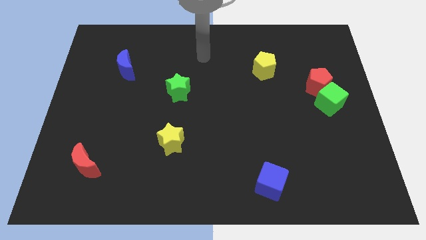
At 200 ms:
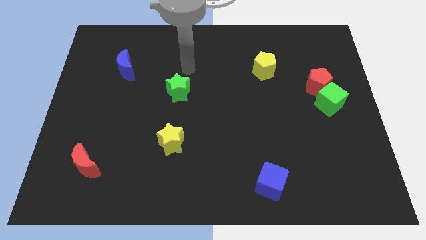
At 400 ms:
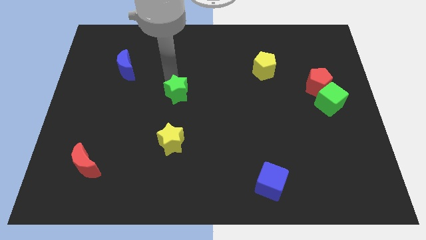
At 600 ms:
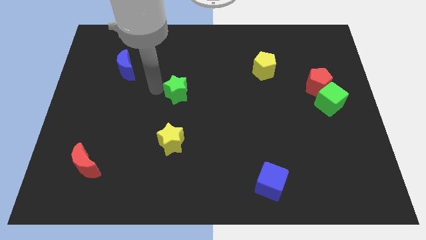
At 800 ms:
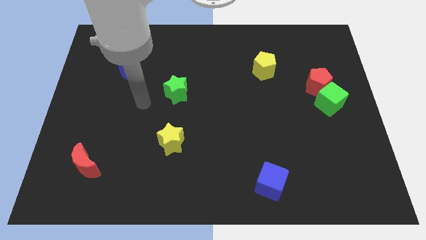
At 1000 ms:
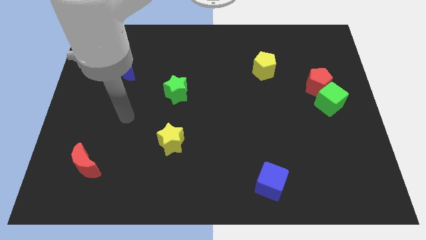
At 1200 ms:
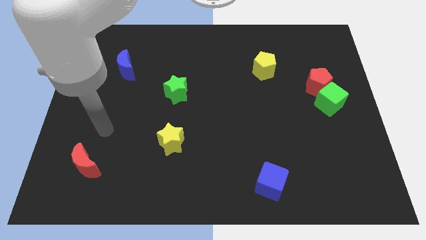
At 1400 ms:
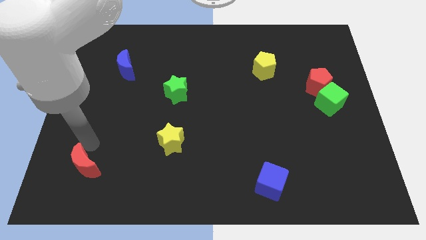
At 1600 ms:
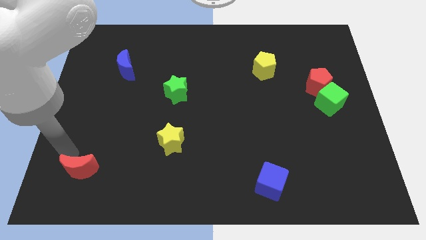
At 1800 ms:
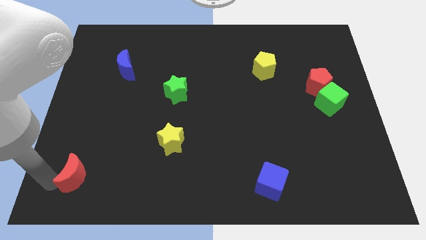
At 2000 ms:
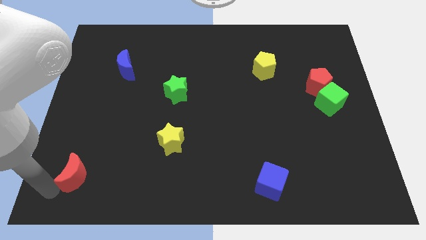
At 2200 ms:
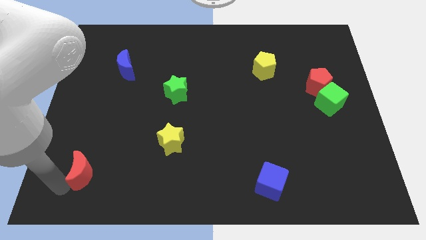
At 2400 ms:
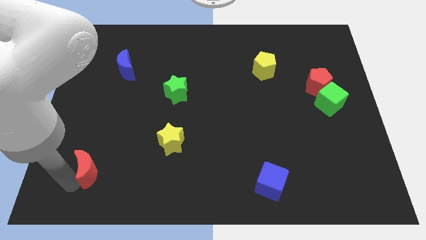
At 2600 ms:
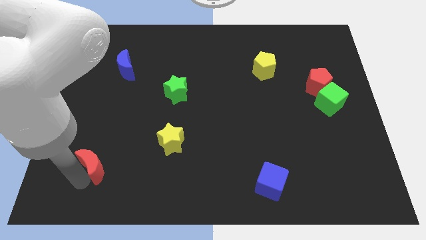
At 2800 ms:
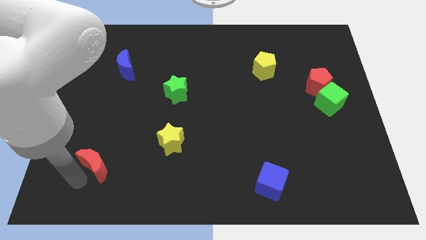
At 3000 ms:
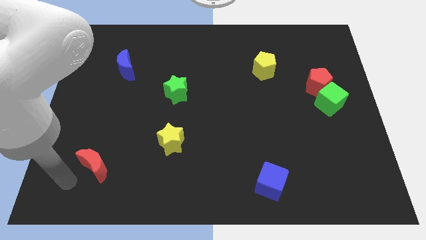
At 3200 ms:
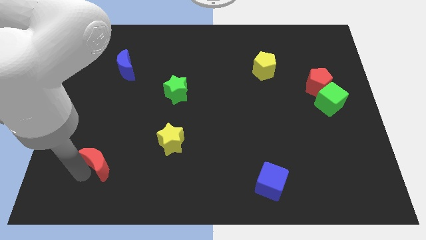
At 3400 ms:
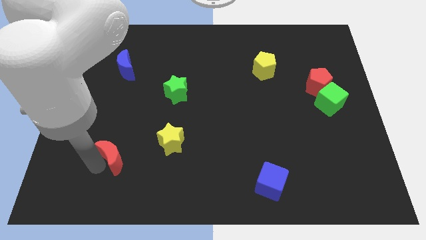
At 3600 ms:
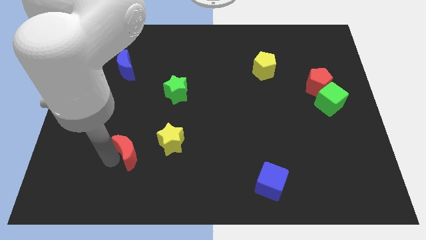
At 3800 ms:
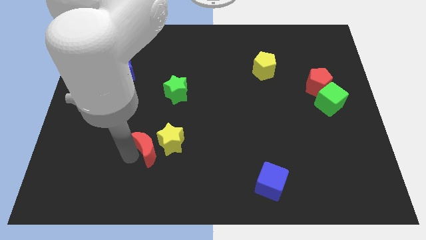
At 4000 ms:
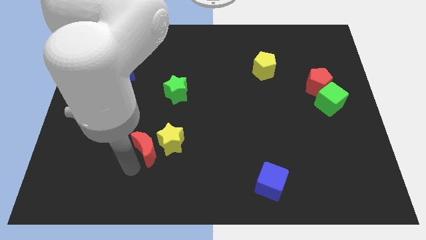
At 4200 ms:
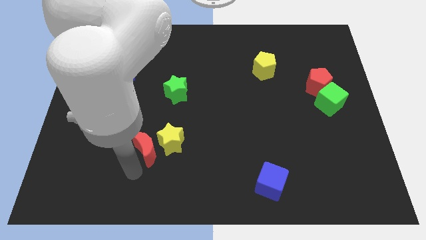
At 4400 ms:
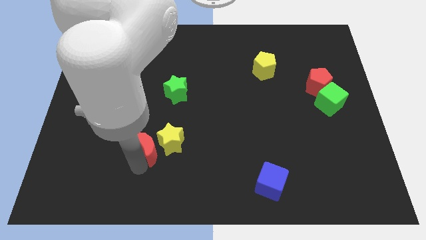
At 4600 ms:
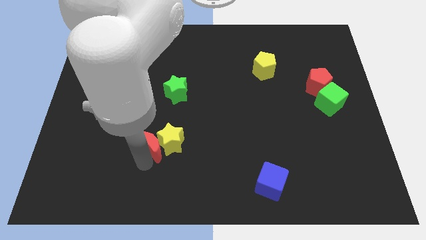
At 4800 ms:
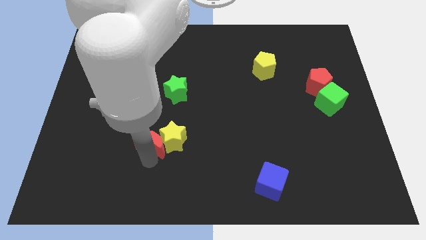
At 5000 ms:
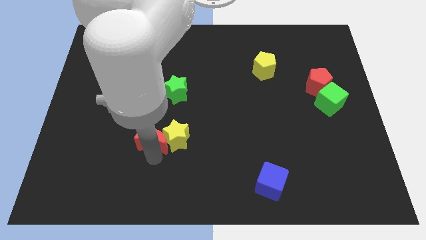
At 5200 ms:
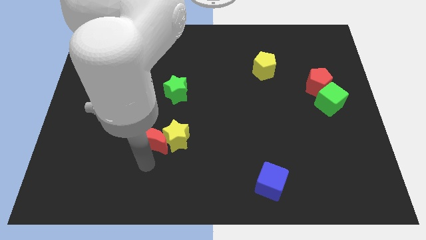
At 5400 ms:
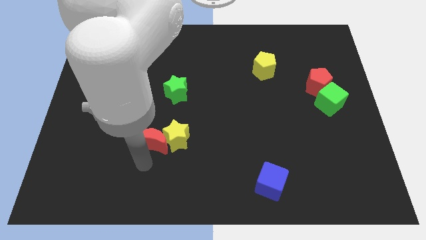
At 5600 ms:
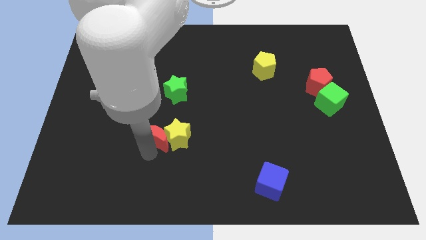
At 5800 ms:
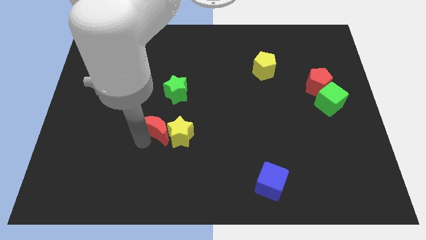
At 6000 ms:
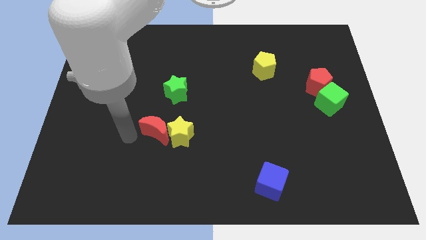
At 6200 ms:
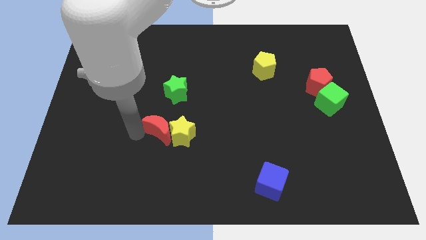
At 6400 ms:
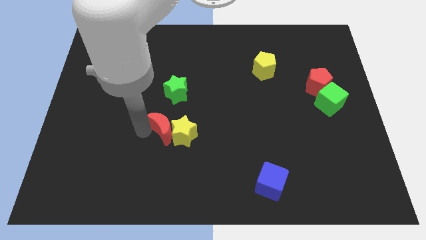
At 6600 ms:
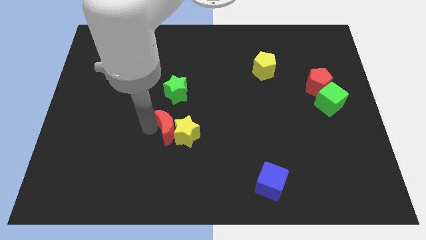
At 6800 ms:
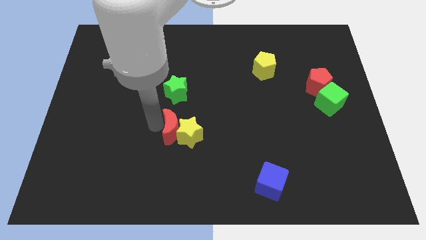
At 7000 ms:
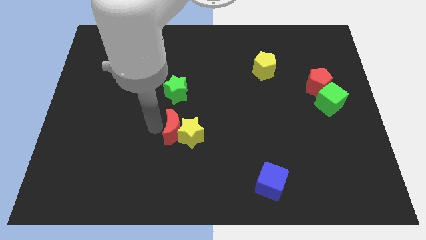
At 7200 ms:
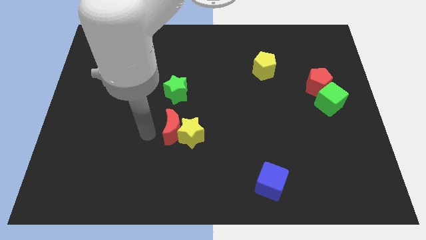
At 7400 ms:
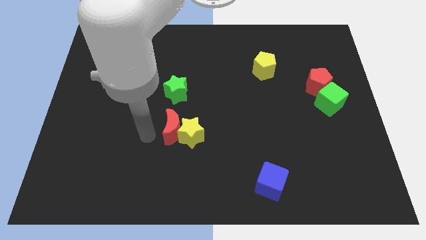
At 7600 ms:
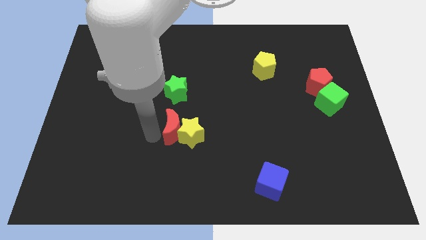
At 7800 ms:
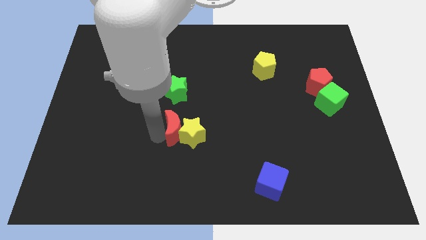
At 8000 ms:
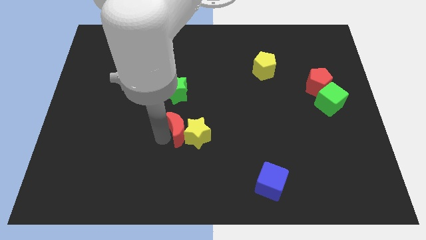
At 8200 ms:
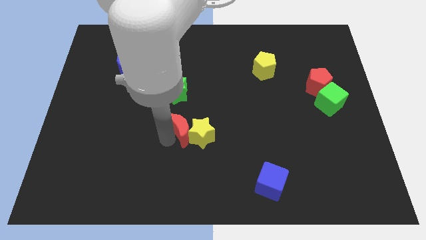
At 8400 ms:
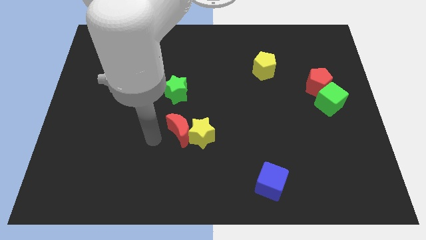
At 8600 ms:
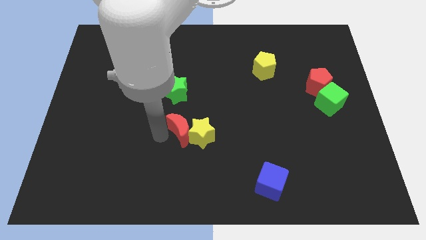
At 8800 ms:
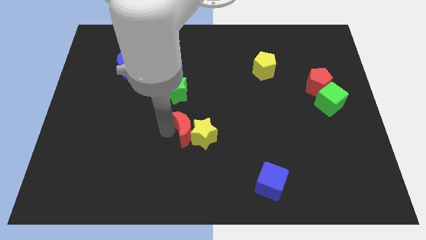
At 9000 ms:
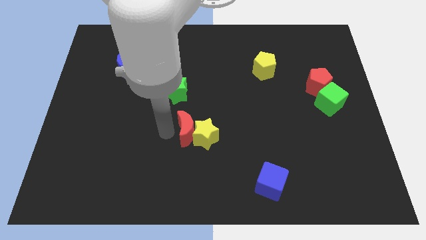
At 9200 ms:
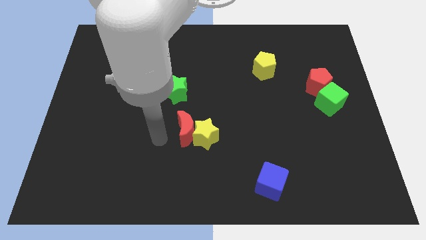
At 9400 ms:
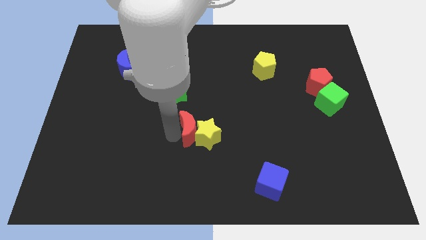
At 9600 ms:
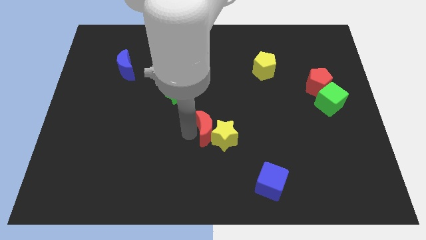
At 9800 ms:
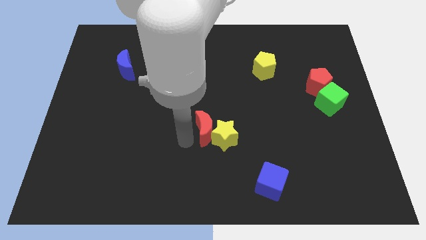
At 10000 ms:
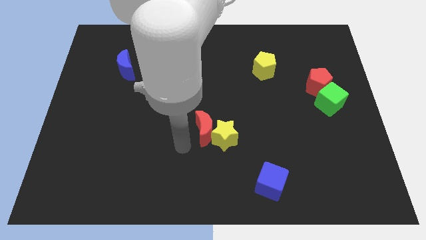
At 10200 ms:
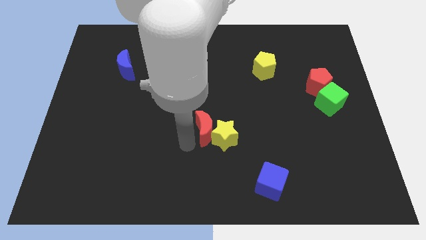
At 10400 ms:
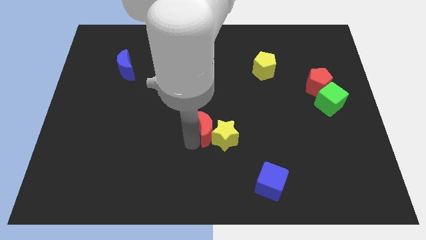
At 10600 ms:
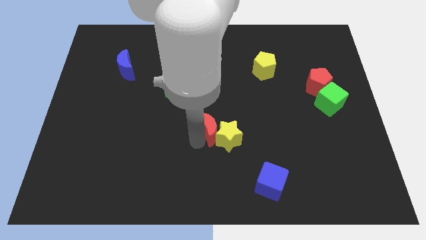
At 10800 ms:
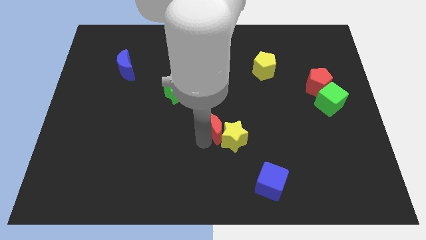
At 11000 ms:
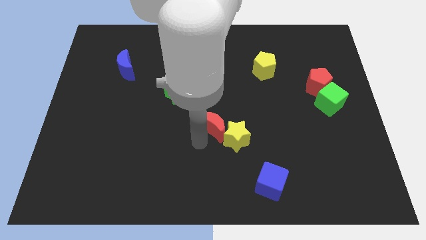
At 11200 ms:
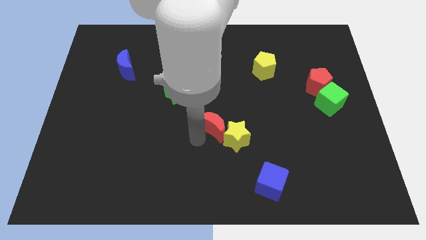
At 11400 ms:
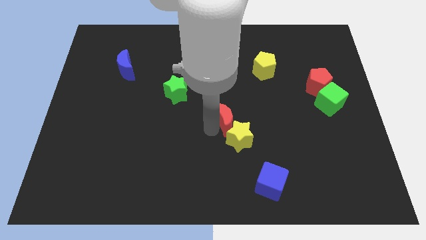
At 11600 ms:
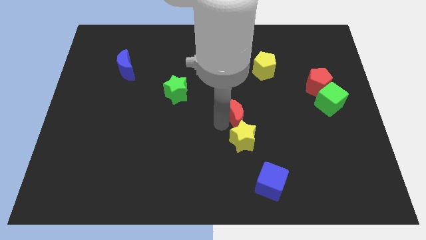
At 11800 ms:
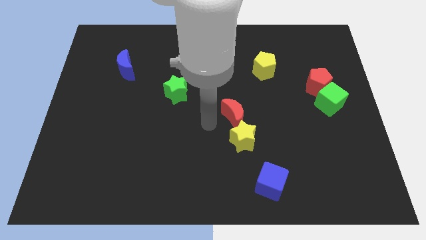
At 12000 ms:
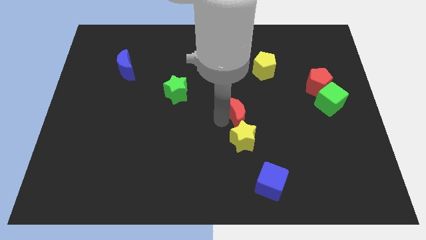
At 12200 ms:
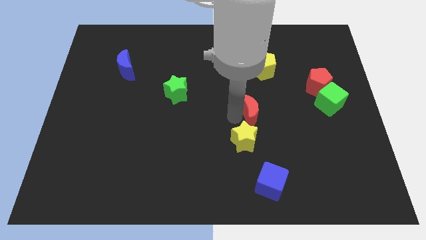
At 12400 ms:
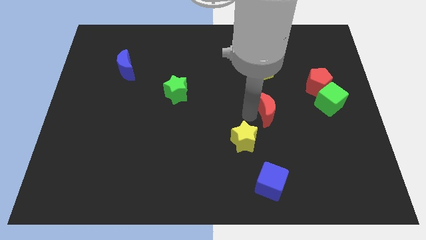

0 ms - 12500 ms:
push the red moon just left of the green cube
